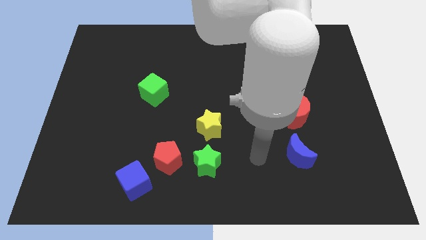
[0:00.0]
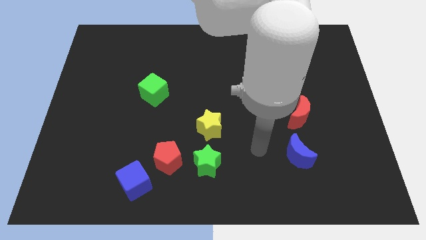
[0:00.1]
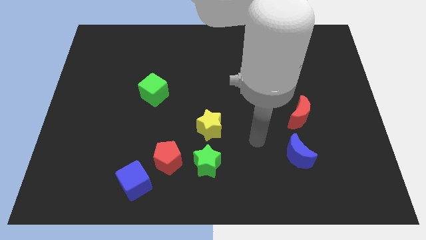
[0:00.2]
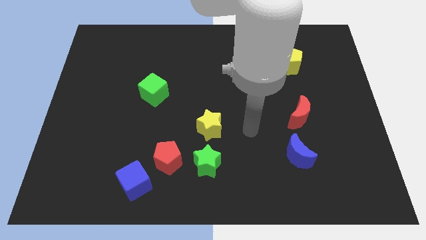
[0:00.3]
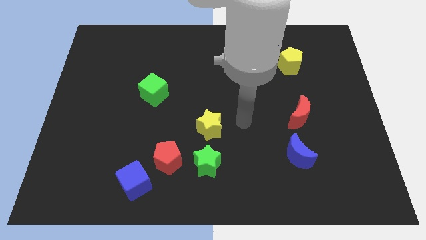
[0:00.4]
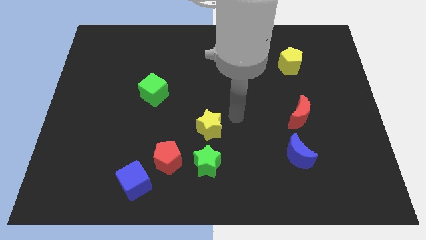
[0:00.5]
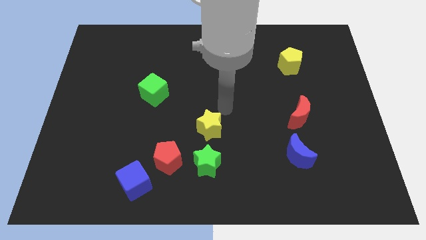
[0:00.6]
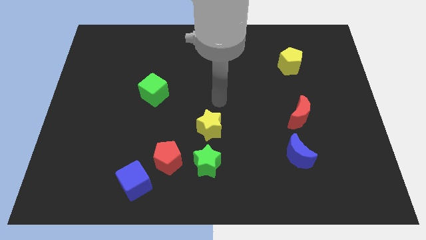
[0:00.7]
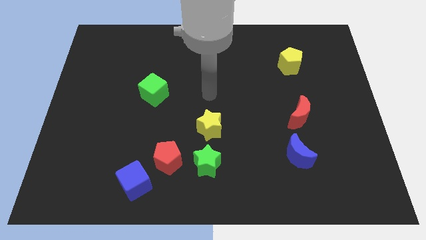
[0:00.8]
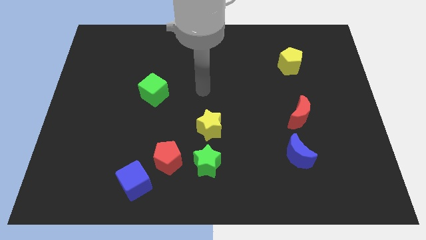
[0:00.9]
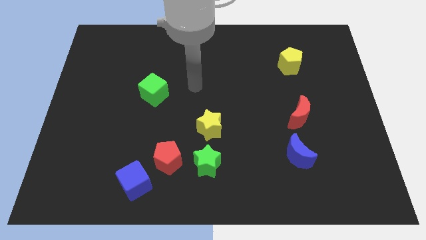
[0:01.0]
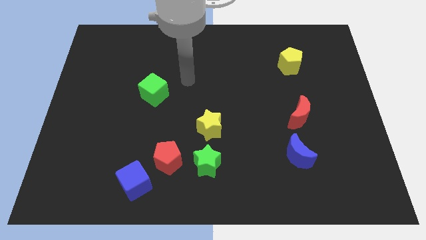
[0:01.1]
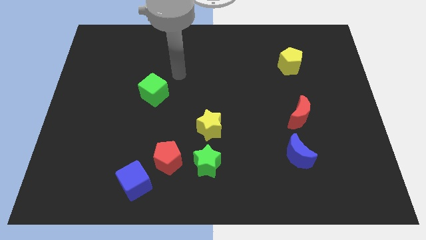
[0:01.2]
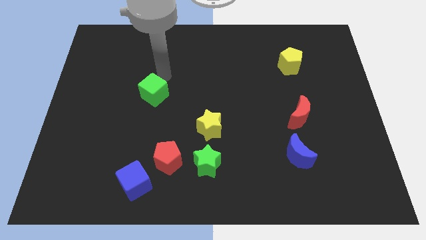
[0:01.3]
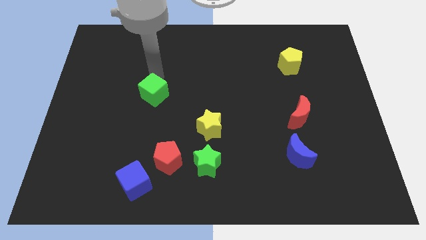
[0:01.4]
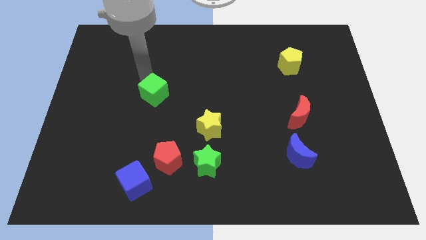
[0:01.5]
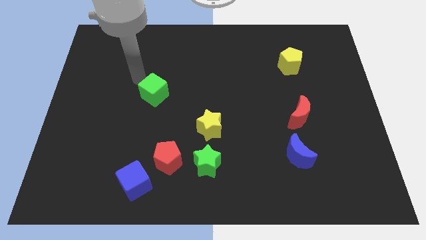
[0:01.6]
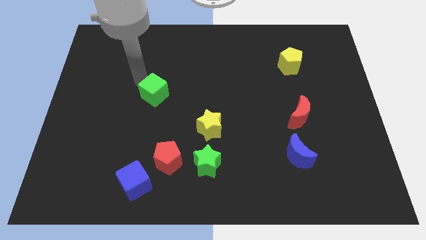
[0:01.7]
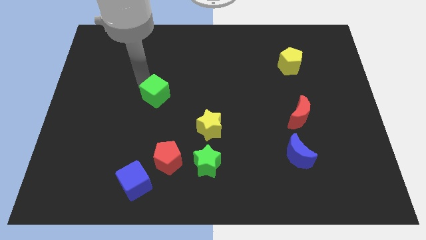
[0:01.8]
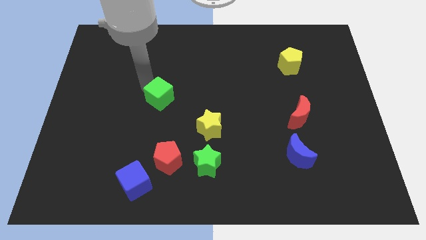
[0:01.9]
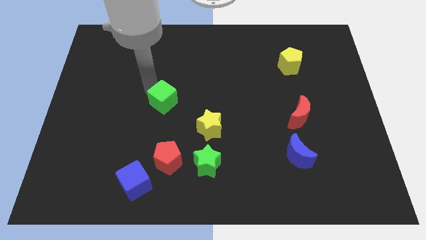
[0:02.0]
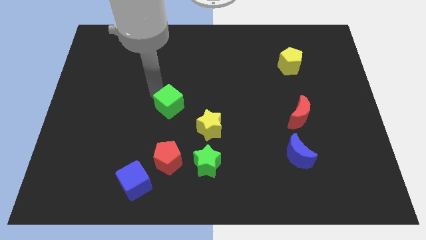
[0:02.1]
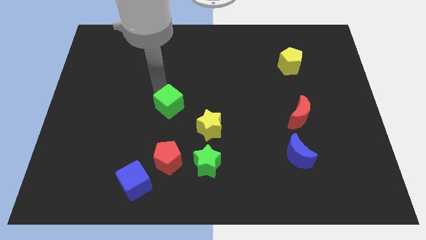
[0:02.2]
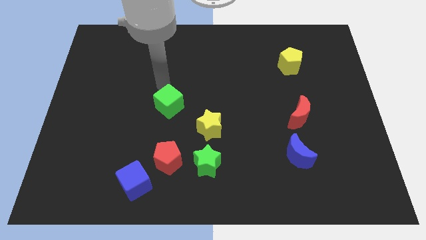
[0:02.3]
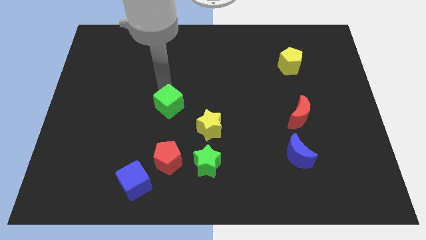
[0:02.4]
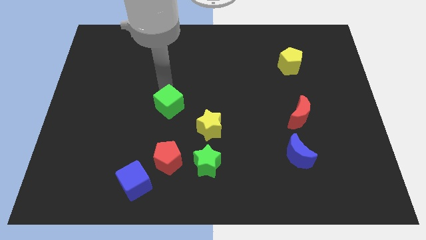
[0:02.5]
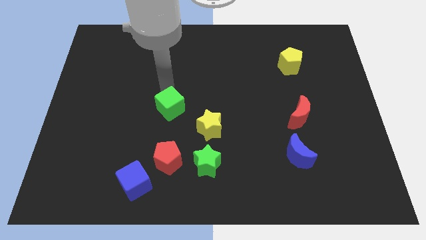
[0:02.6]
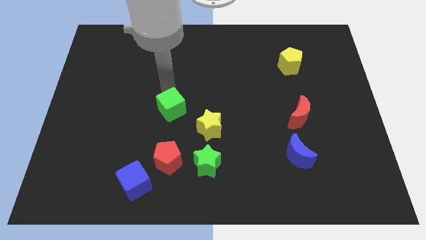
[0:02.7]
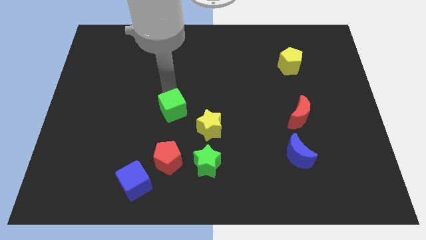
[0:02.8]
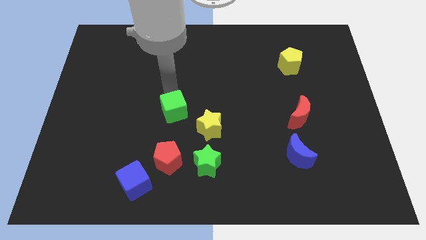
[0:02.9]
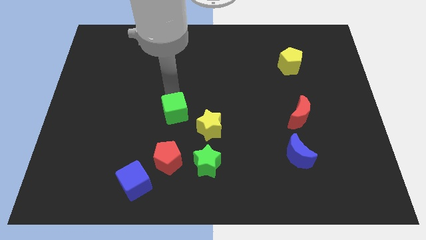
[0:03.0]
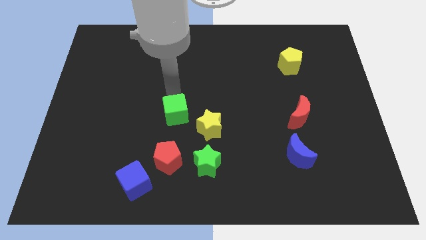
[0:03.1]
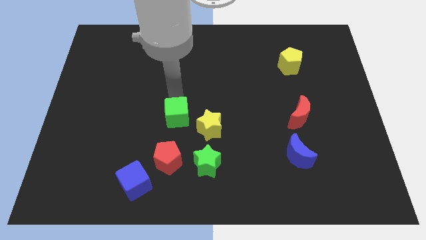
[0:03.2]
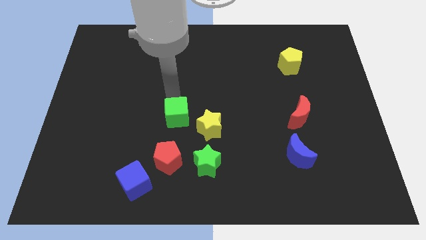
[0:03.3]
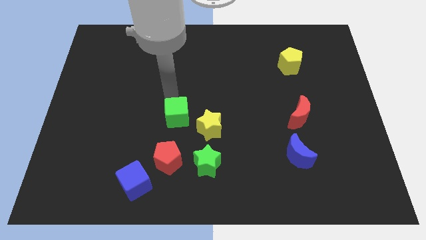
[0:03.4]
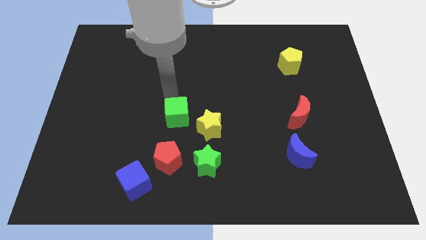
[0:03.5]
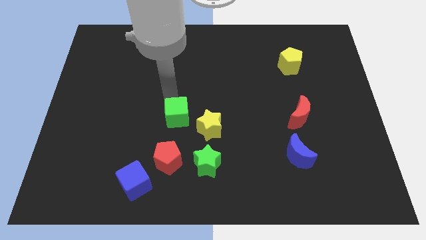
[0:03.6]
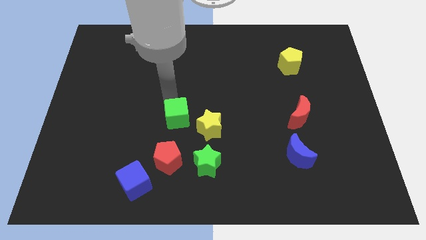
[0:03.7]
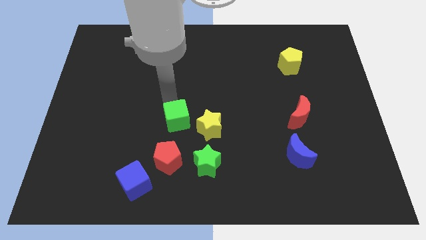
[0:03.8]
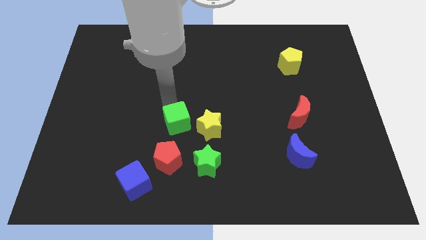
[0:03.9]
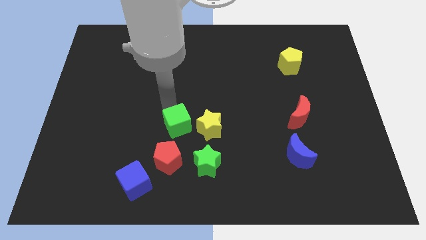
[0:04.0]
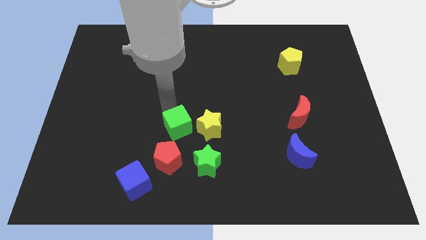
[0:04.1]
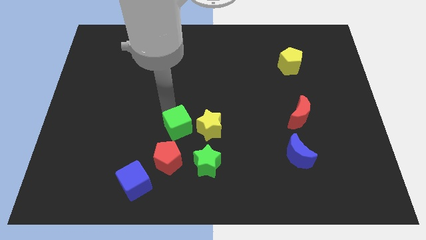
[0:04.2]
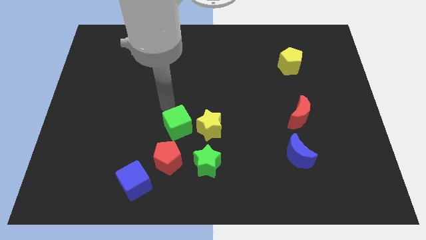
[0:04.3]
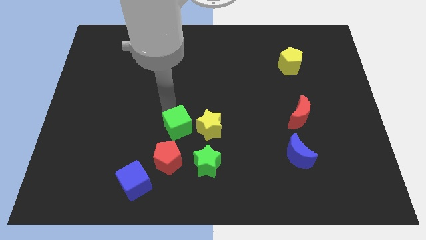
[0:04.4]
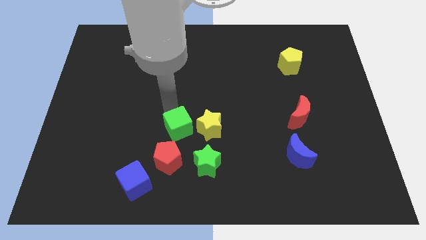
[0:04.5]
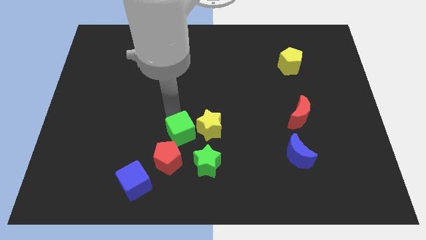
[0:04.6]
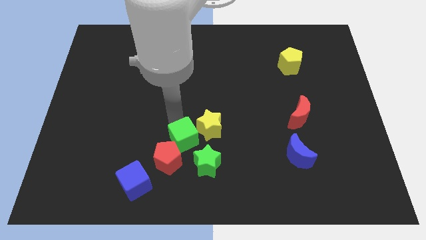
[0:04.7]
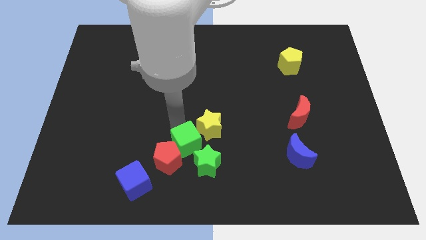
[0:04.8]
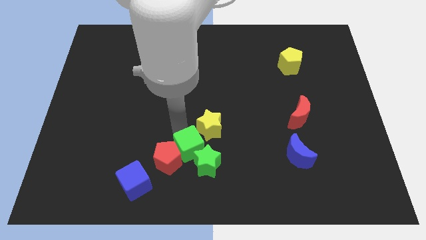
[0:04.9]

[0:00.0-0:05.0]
push the green cube next to the green star

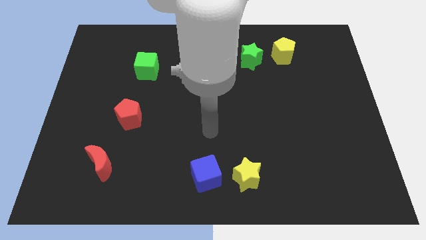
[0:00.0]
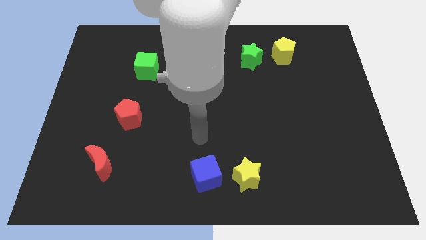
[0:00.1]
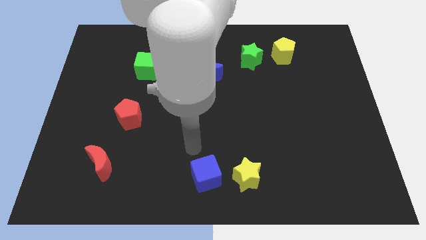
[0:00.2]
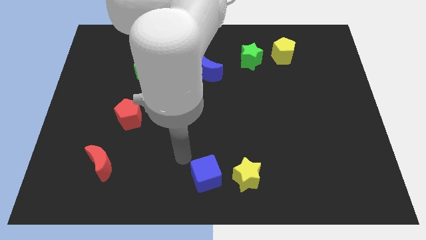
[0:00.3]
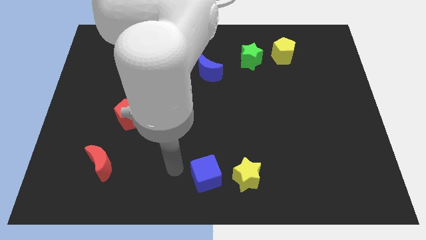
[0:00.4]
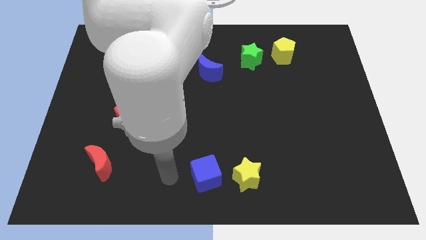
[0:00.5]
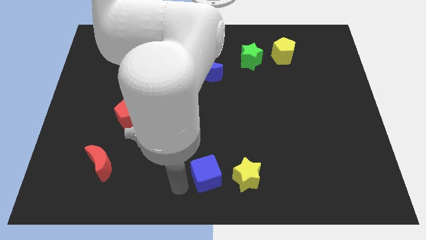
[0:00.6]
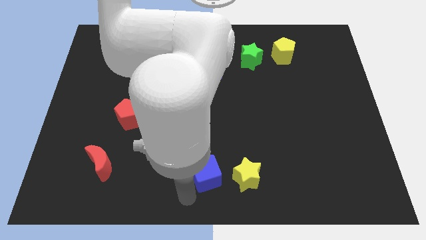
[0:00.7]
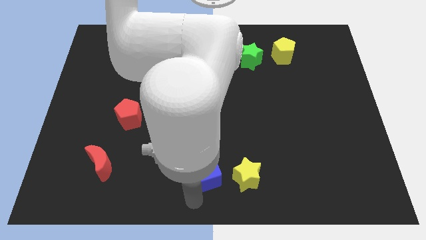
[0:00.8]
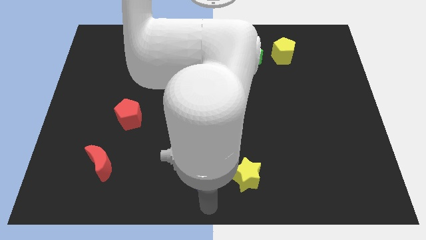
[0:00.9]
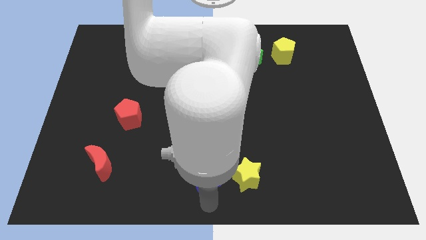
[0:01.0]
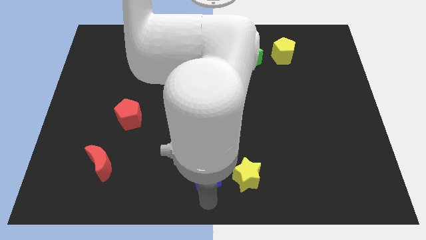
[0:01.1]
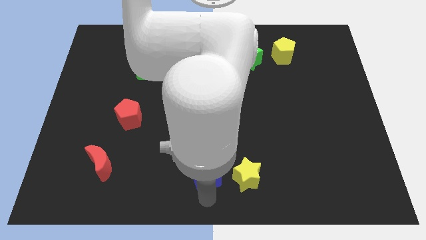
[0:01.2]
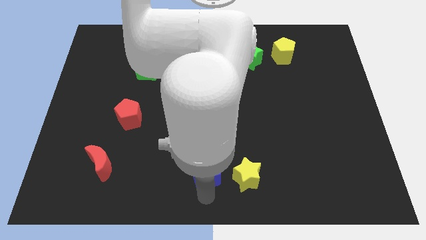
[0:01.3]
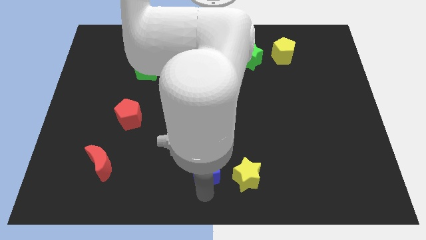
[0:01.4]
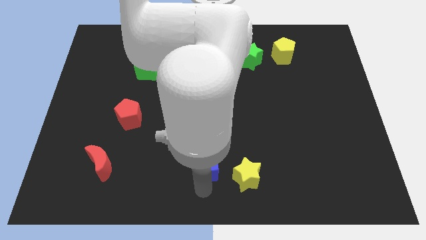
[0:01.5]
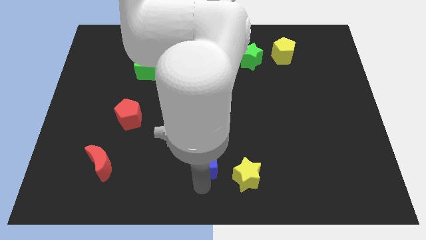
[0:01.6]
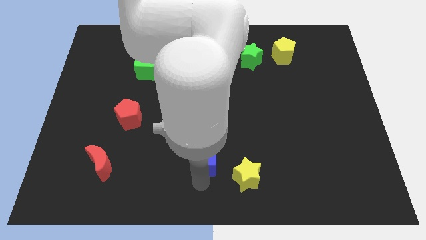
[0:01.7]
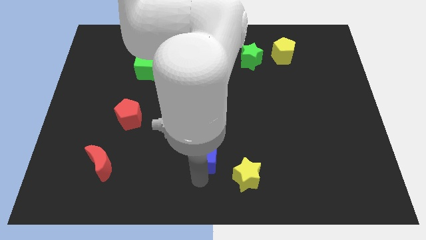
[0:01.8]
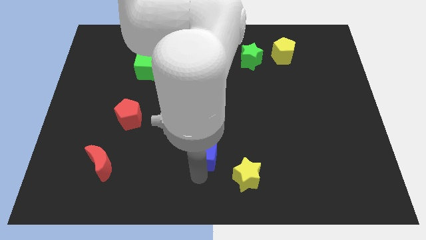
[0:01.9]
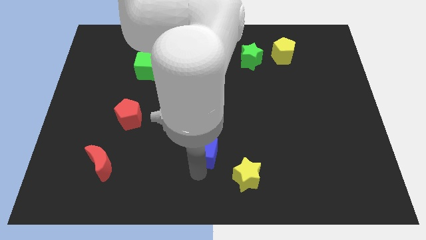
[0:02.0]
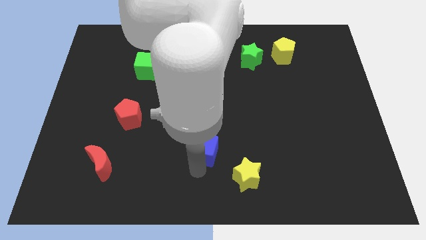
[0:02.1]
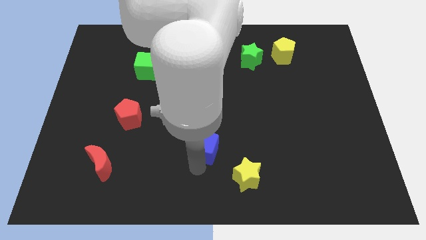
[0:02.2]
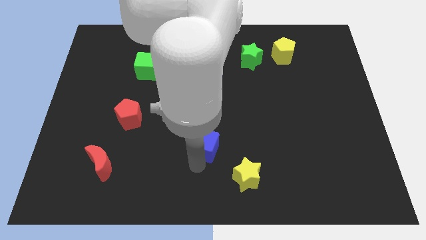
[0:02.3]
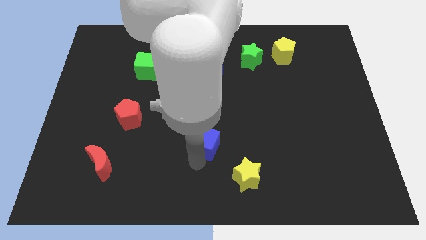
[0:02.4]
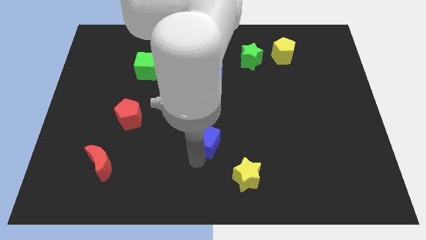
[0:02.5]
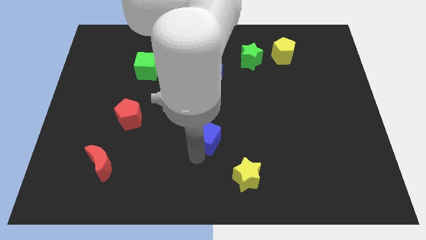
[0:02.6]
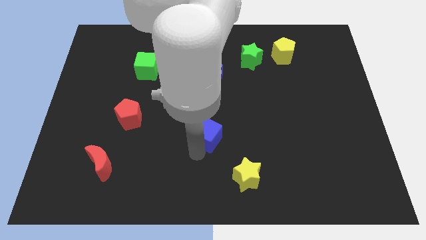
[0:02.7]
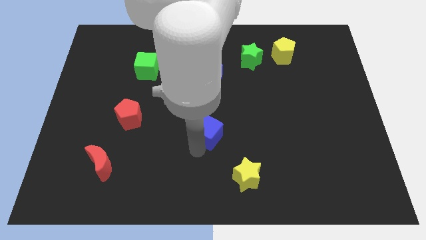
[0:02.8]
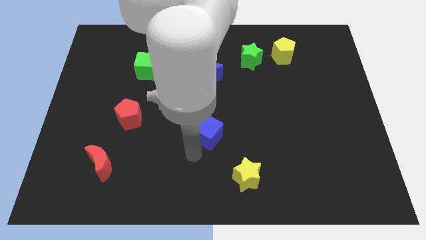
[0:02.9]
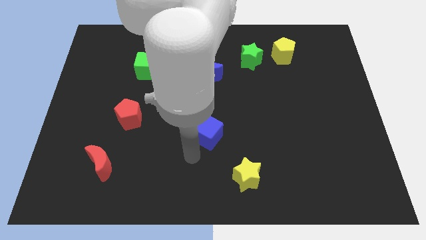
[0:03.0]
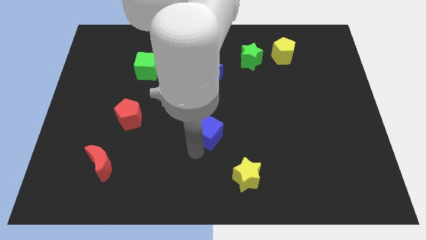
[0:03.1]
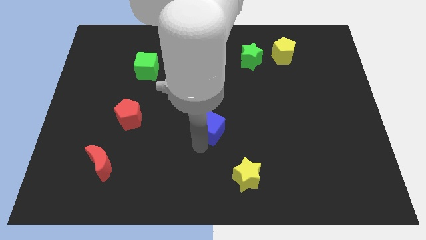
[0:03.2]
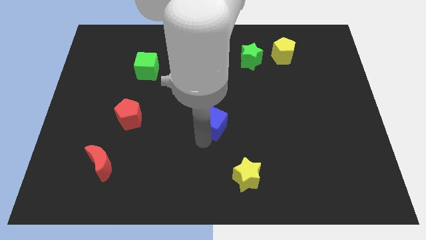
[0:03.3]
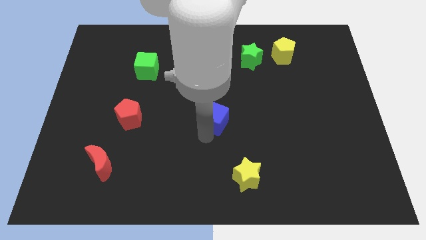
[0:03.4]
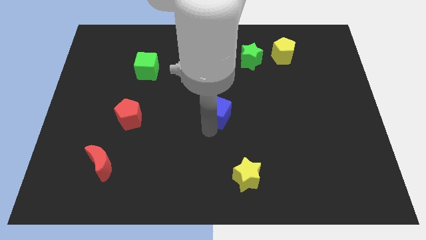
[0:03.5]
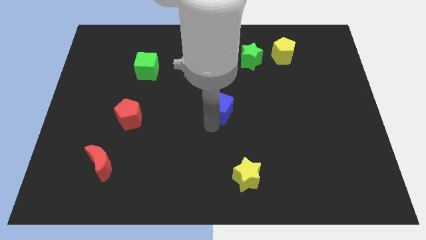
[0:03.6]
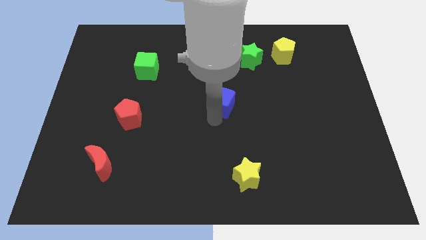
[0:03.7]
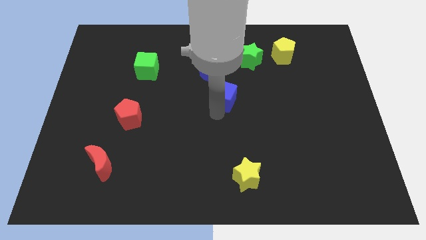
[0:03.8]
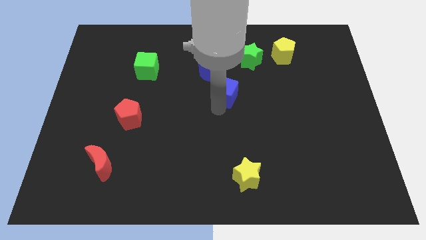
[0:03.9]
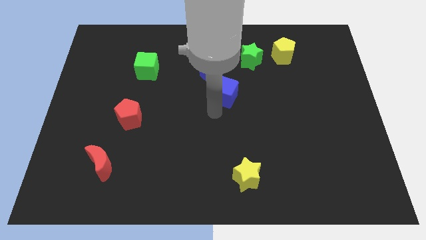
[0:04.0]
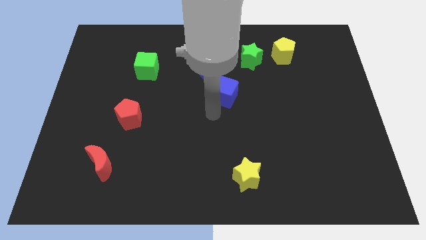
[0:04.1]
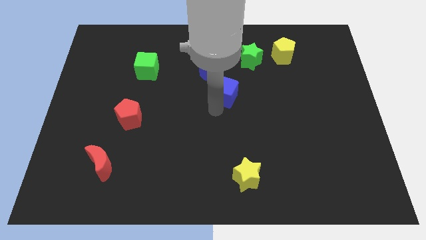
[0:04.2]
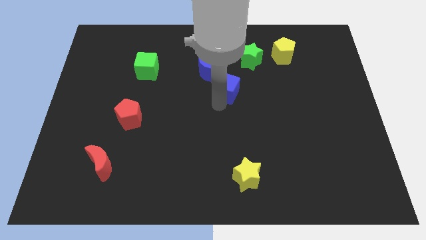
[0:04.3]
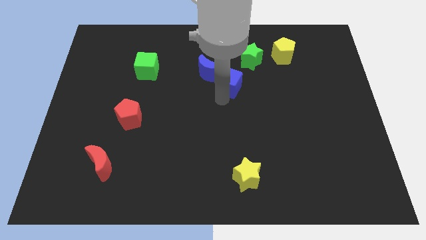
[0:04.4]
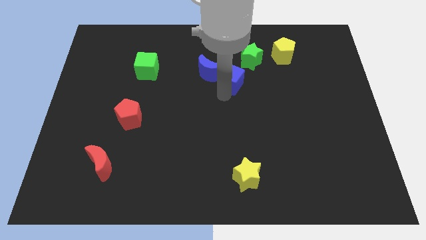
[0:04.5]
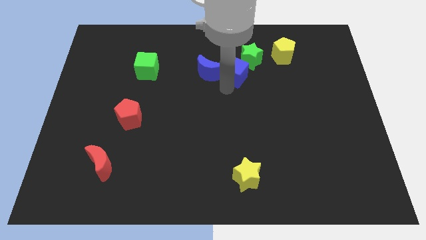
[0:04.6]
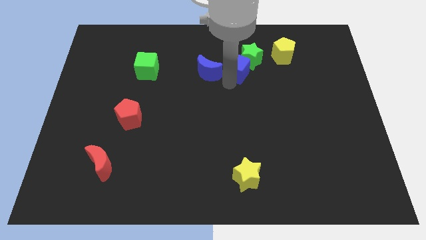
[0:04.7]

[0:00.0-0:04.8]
move the blue cube close to the green star
